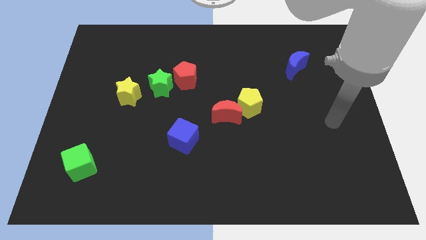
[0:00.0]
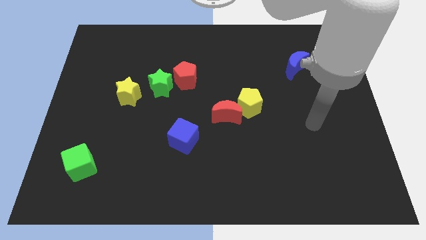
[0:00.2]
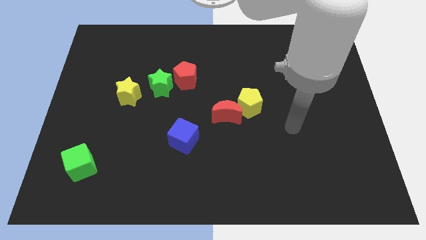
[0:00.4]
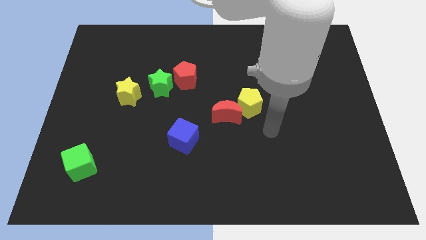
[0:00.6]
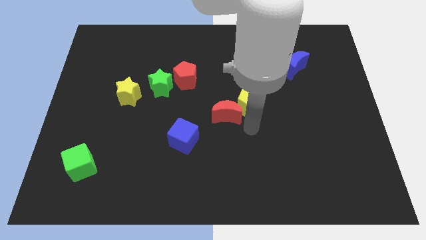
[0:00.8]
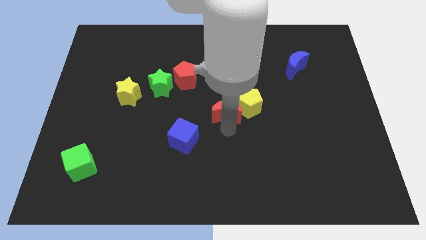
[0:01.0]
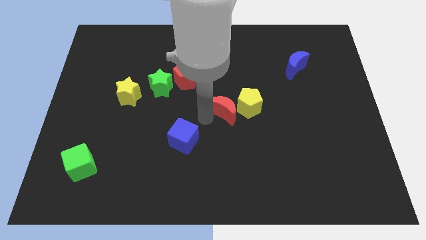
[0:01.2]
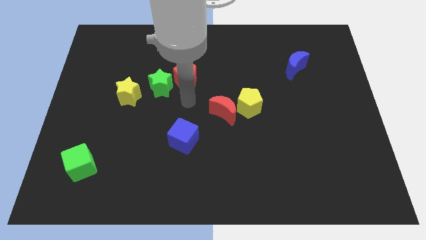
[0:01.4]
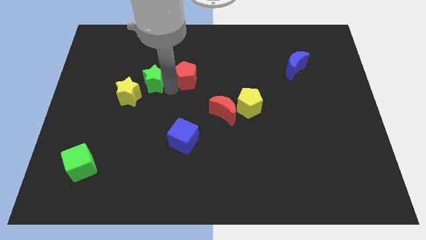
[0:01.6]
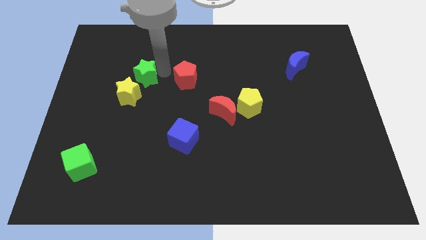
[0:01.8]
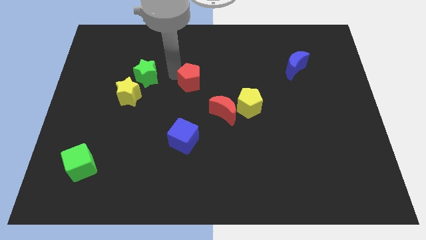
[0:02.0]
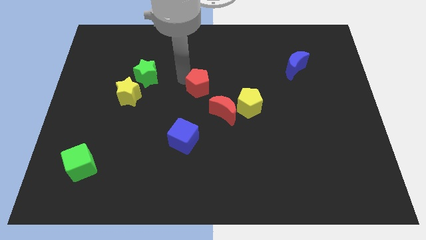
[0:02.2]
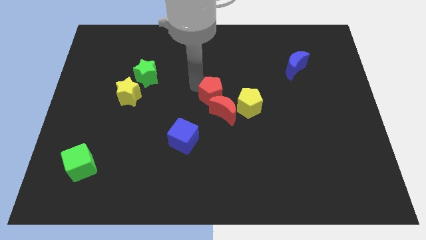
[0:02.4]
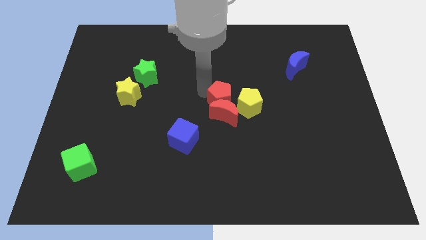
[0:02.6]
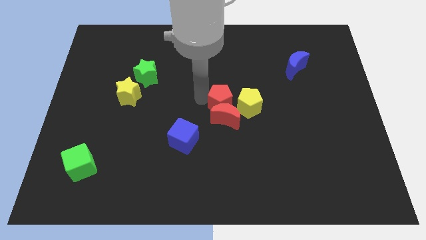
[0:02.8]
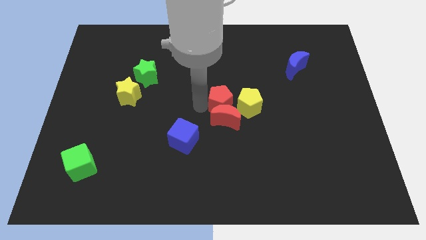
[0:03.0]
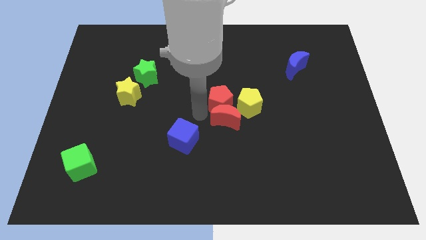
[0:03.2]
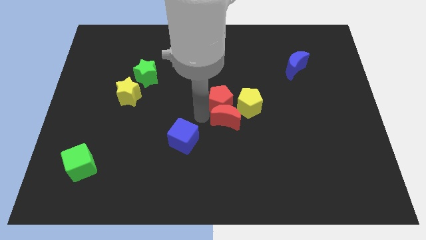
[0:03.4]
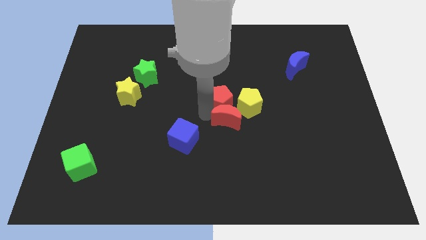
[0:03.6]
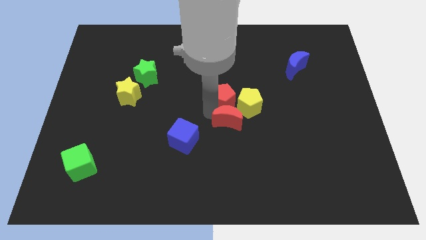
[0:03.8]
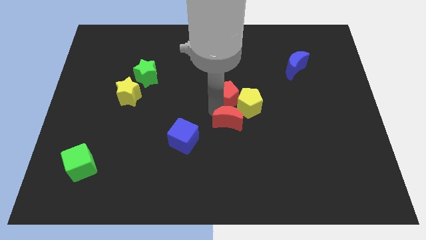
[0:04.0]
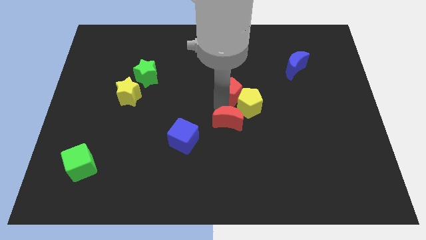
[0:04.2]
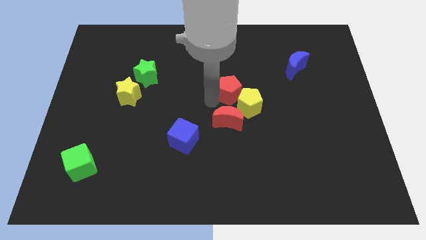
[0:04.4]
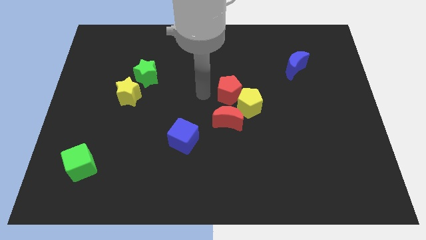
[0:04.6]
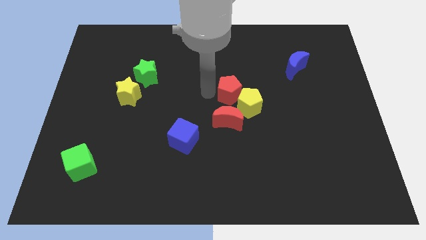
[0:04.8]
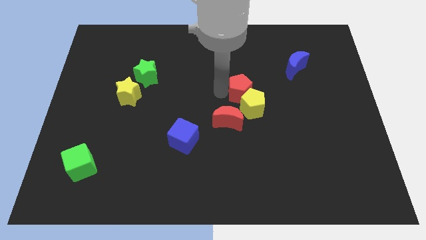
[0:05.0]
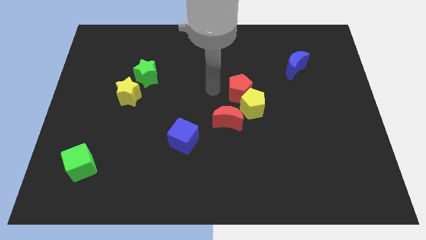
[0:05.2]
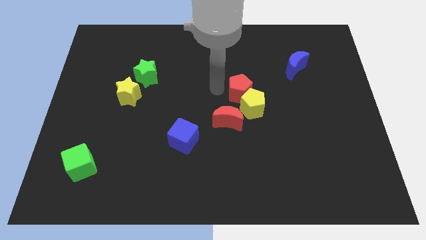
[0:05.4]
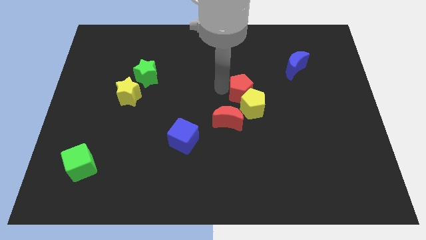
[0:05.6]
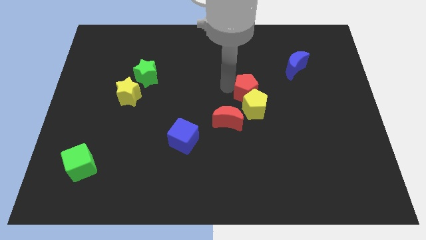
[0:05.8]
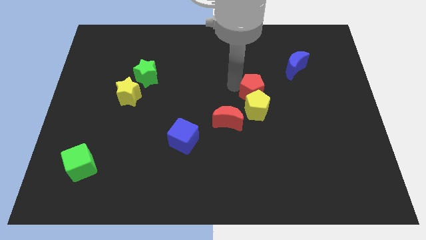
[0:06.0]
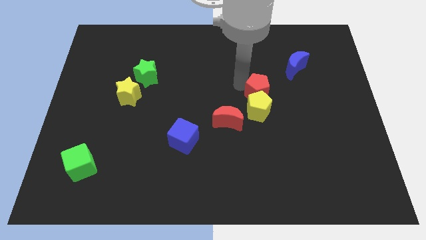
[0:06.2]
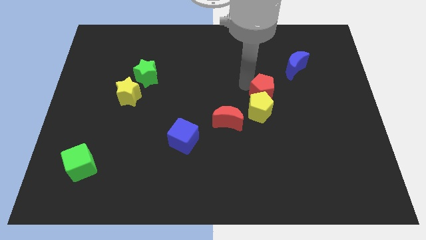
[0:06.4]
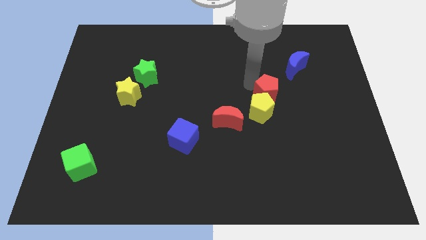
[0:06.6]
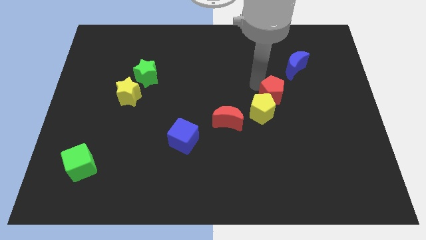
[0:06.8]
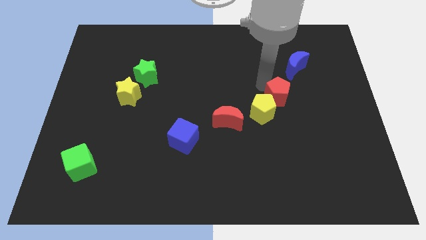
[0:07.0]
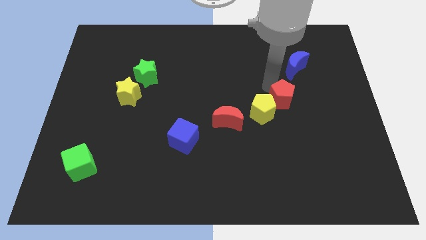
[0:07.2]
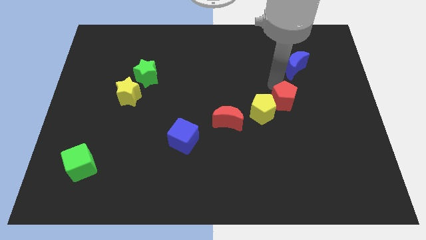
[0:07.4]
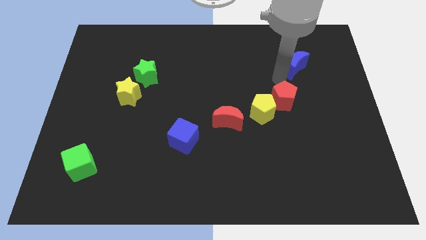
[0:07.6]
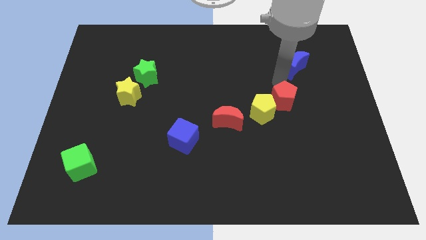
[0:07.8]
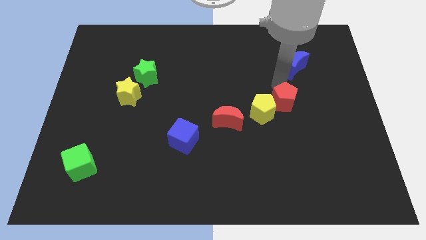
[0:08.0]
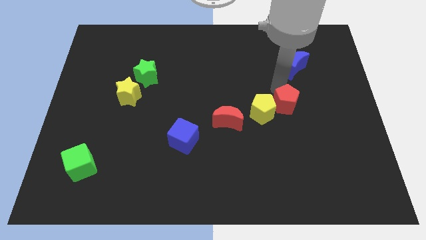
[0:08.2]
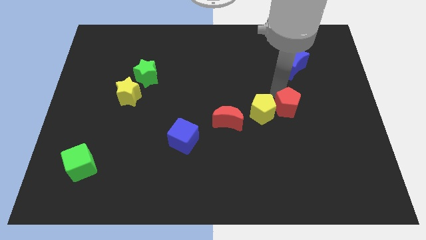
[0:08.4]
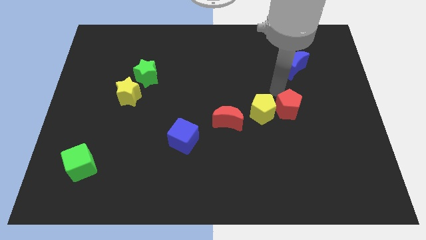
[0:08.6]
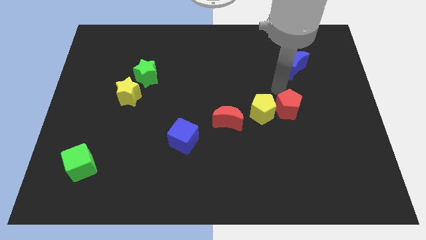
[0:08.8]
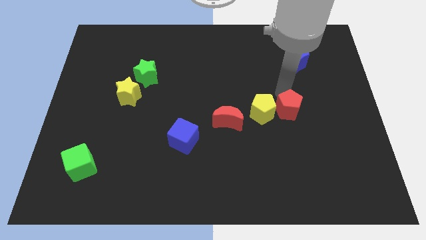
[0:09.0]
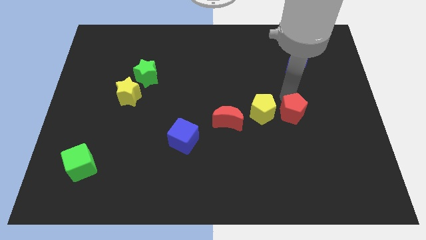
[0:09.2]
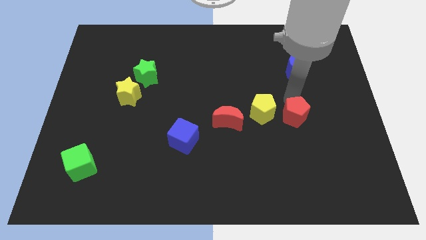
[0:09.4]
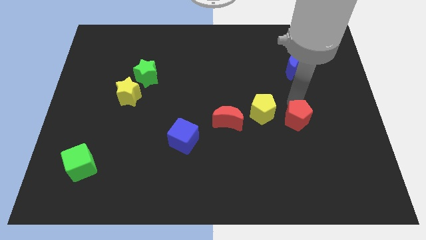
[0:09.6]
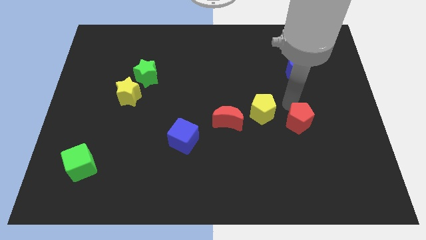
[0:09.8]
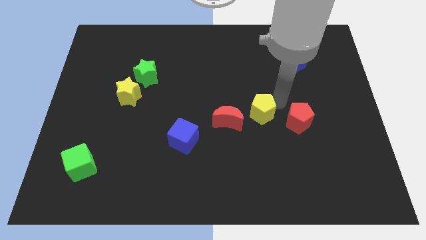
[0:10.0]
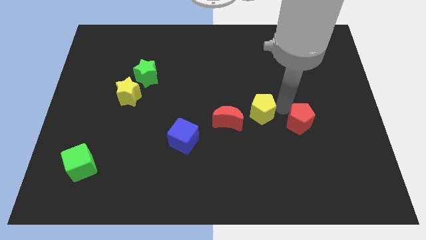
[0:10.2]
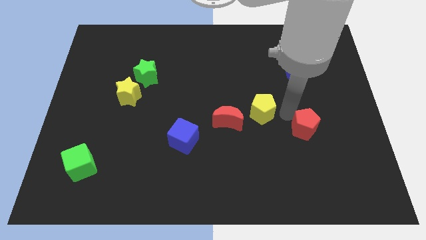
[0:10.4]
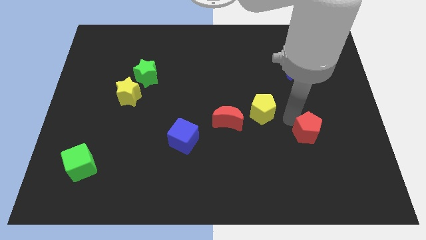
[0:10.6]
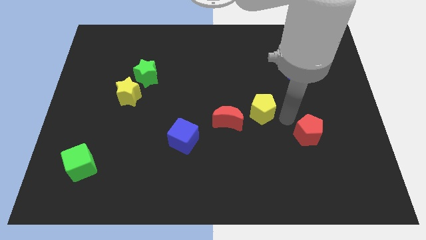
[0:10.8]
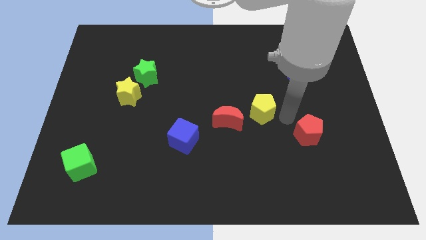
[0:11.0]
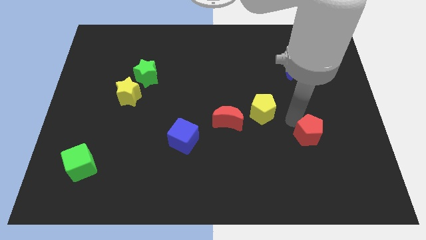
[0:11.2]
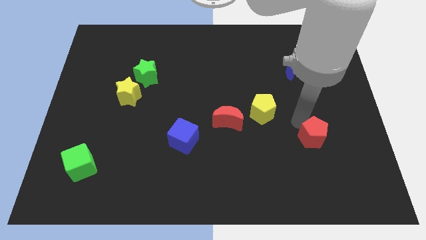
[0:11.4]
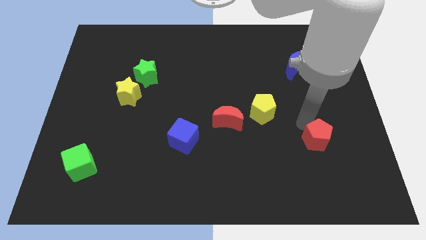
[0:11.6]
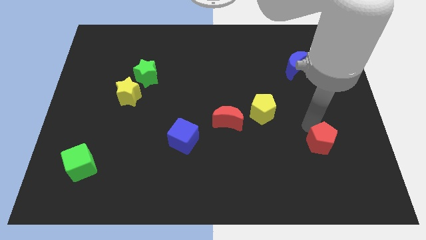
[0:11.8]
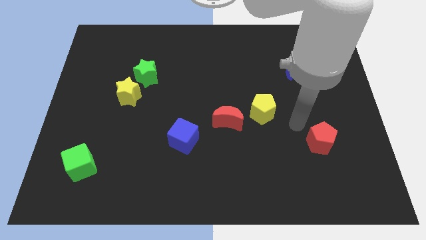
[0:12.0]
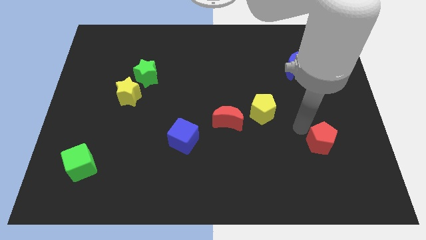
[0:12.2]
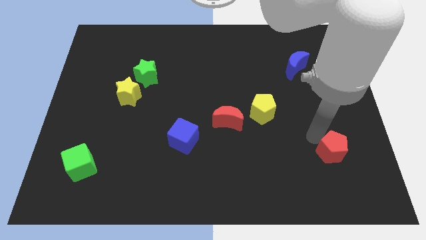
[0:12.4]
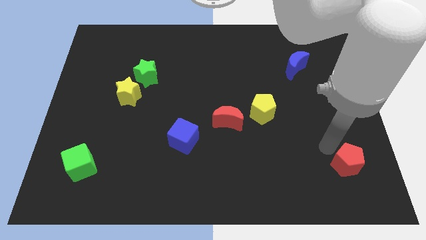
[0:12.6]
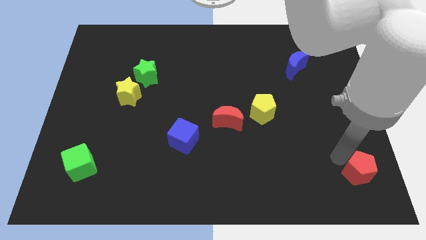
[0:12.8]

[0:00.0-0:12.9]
push the red pentagon to the bottom right corner
